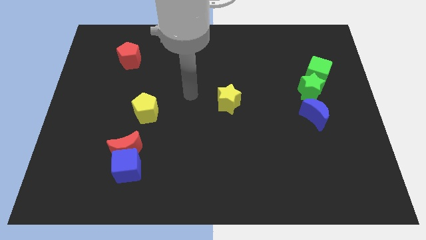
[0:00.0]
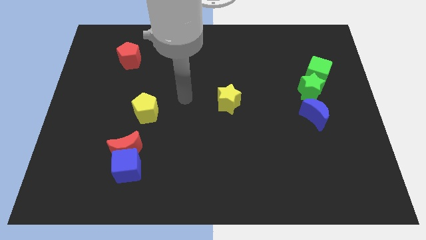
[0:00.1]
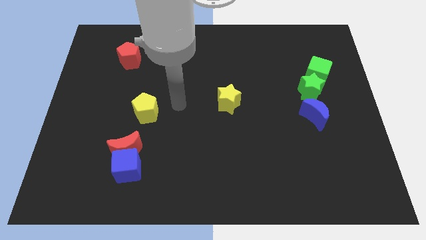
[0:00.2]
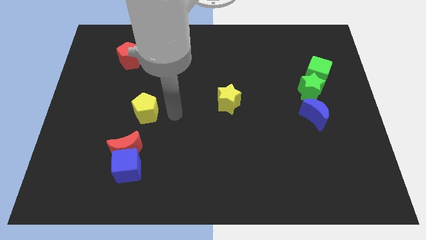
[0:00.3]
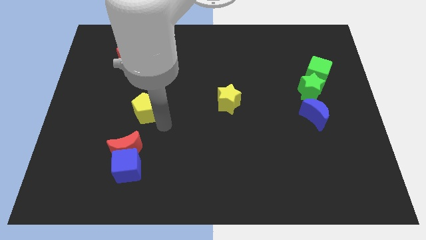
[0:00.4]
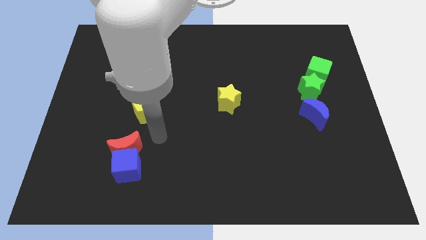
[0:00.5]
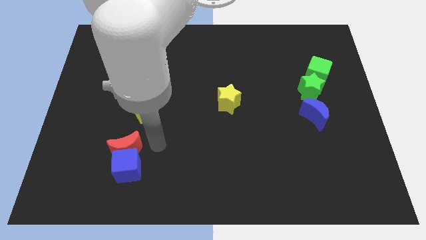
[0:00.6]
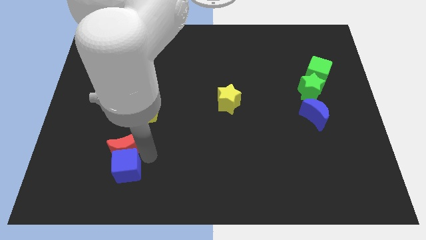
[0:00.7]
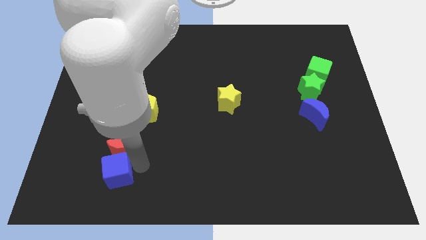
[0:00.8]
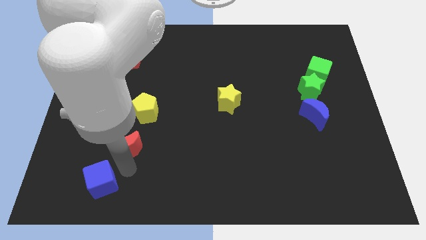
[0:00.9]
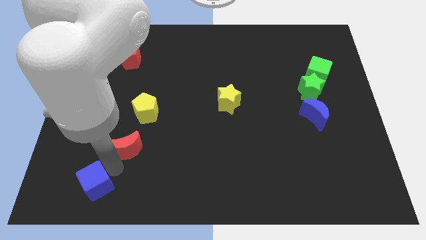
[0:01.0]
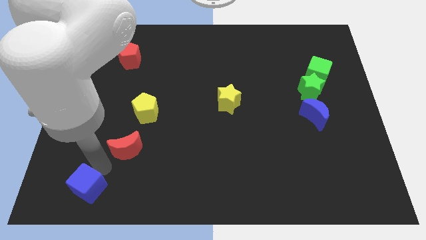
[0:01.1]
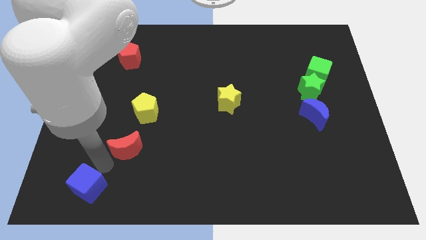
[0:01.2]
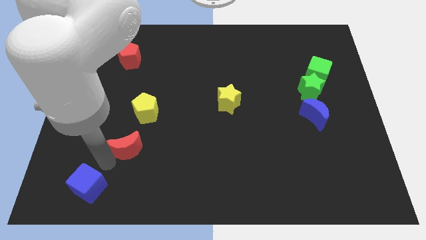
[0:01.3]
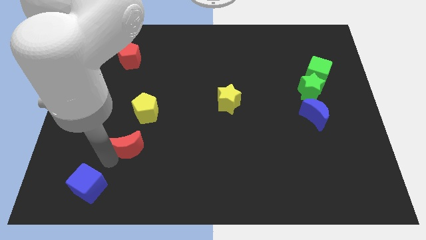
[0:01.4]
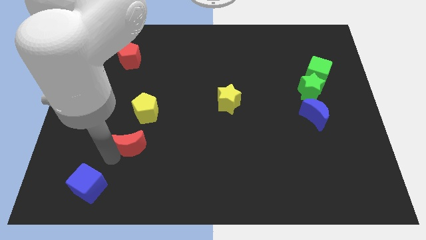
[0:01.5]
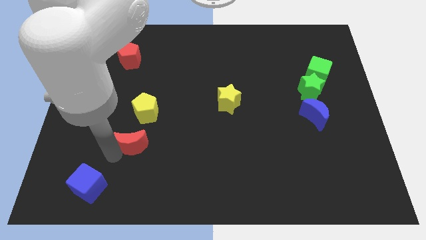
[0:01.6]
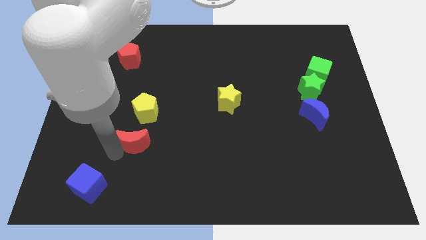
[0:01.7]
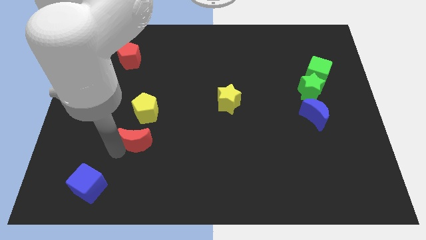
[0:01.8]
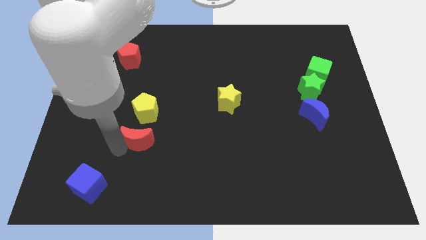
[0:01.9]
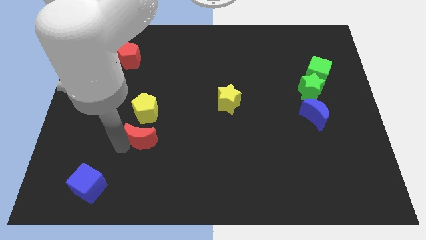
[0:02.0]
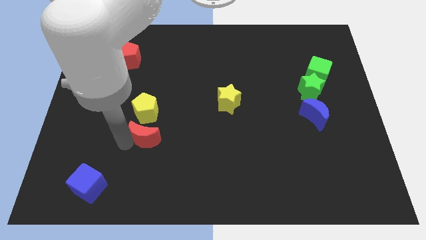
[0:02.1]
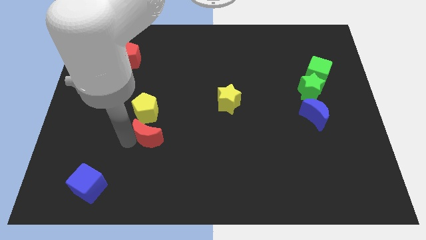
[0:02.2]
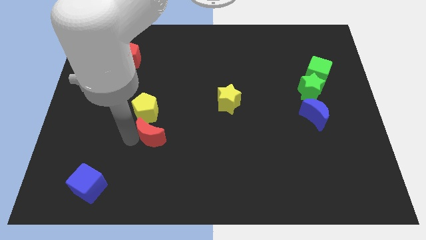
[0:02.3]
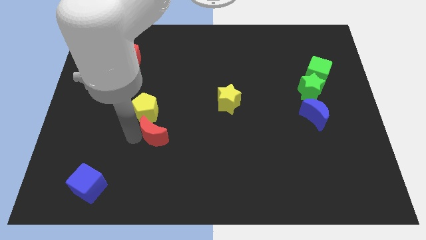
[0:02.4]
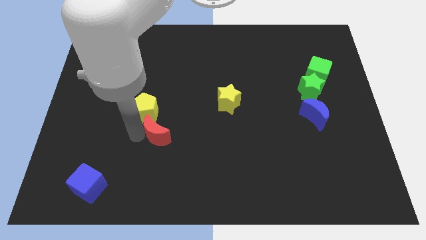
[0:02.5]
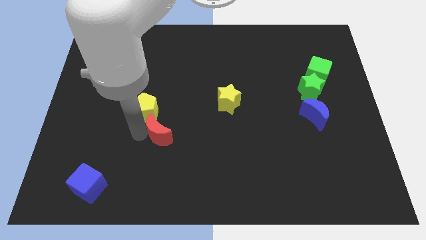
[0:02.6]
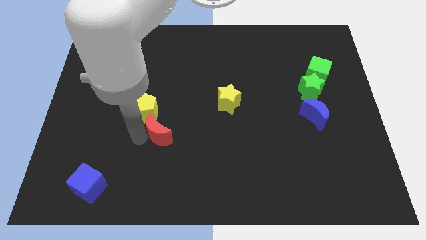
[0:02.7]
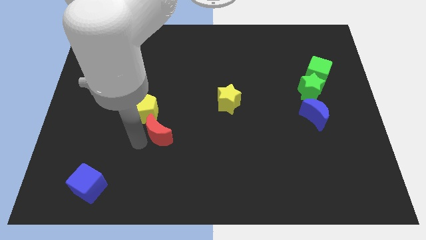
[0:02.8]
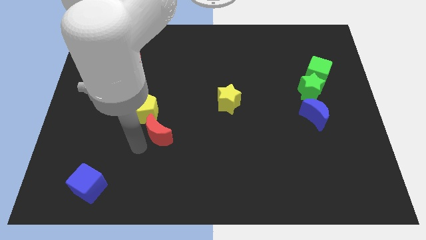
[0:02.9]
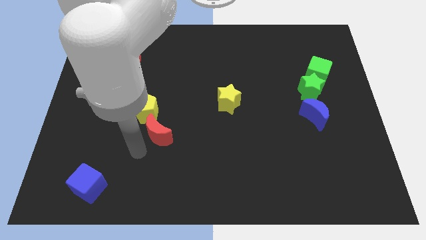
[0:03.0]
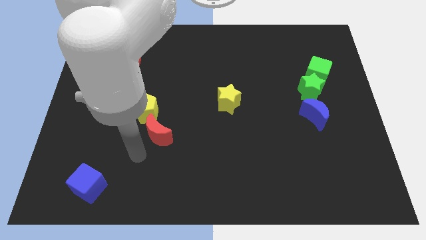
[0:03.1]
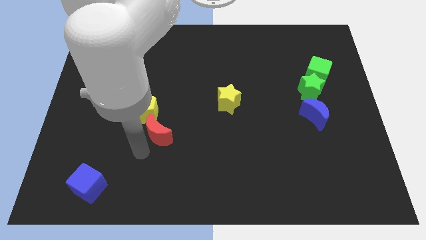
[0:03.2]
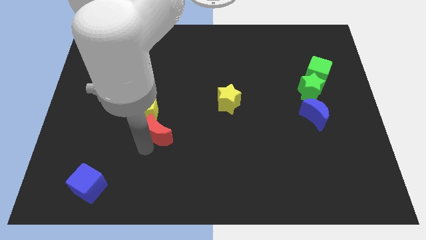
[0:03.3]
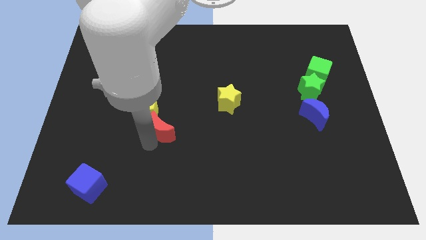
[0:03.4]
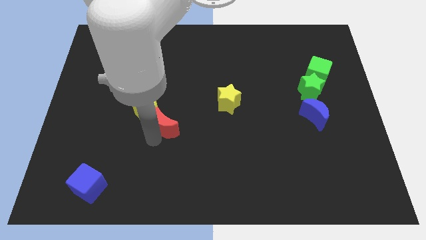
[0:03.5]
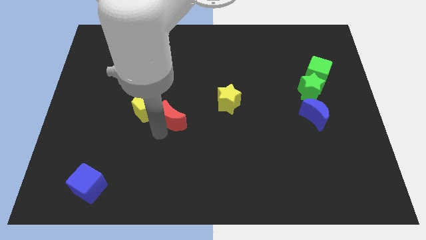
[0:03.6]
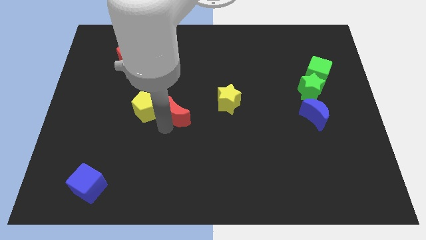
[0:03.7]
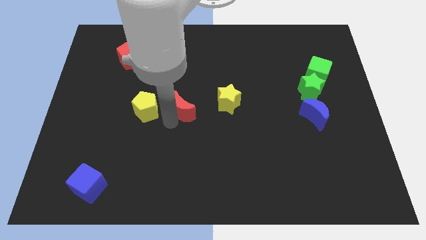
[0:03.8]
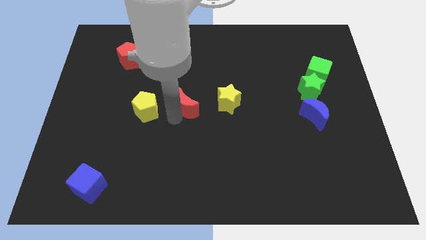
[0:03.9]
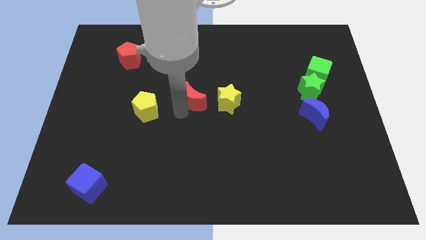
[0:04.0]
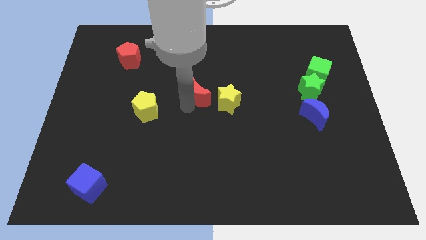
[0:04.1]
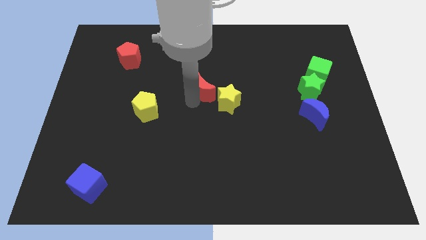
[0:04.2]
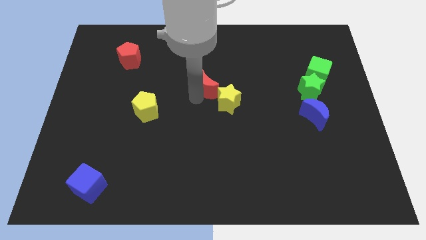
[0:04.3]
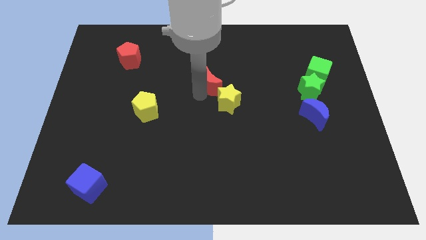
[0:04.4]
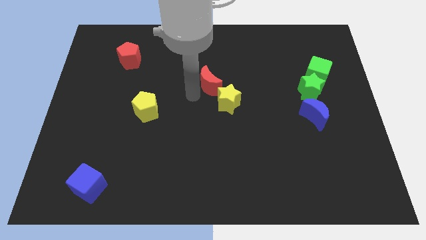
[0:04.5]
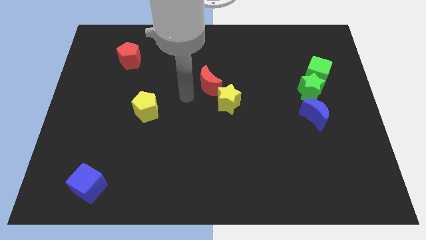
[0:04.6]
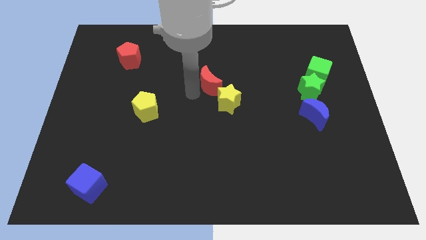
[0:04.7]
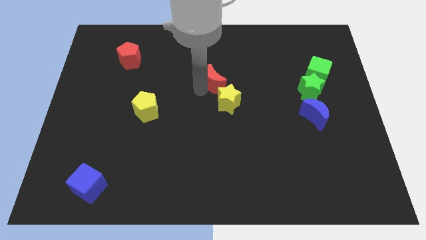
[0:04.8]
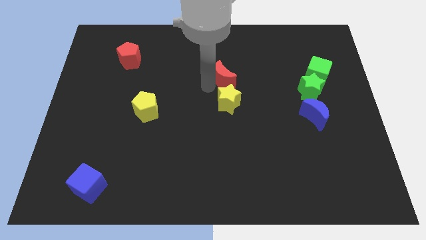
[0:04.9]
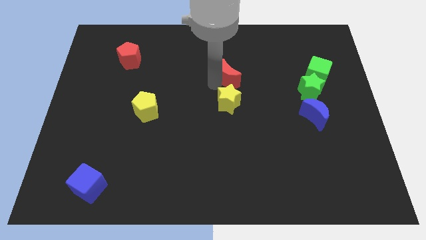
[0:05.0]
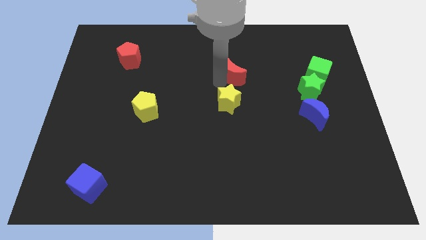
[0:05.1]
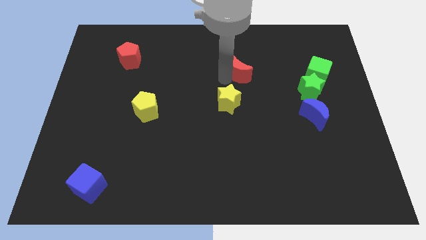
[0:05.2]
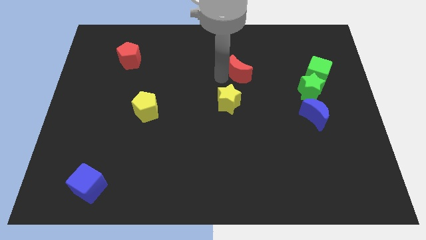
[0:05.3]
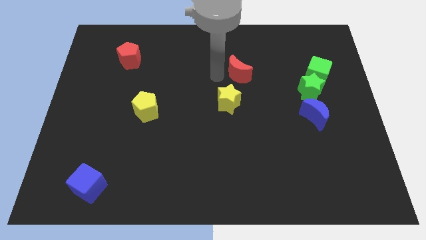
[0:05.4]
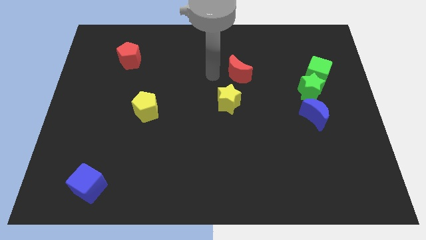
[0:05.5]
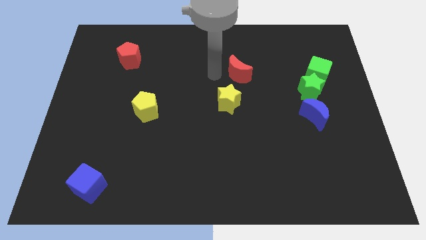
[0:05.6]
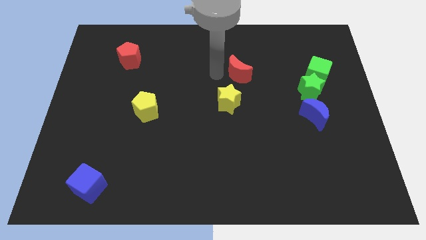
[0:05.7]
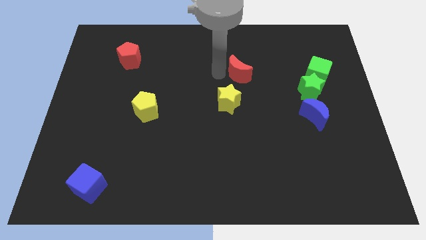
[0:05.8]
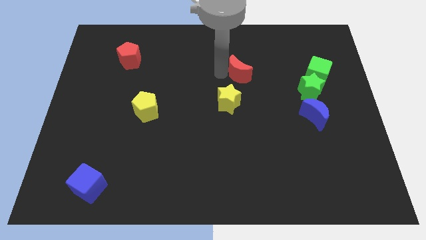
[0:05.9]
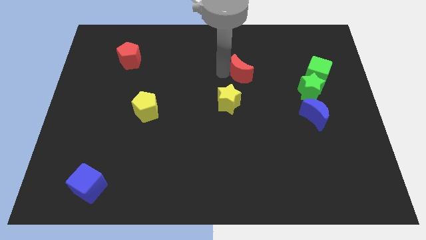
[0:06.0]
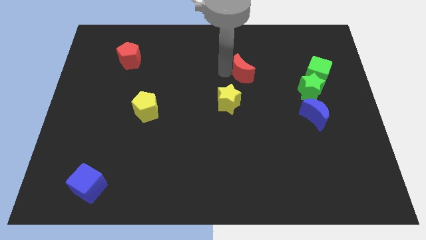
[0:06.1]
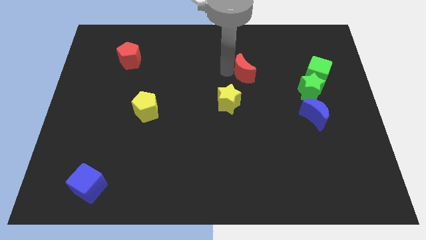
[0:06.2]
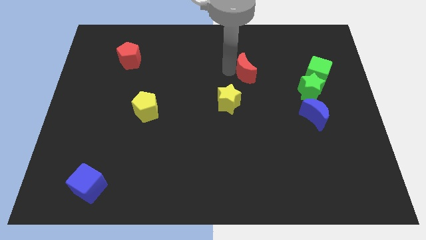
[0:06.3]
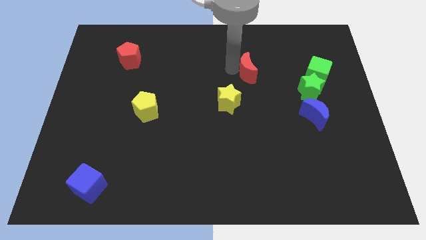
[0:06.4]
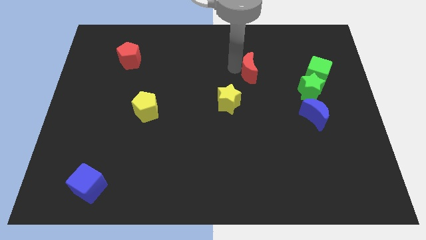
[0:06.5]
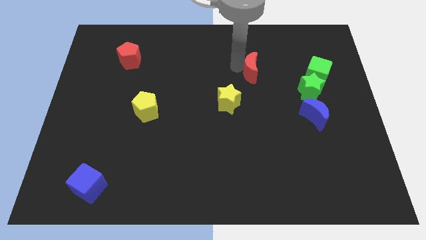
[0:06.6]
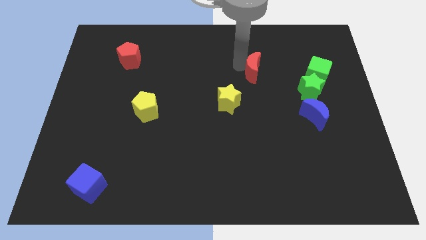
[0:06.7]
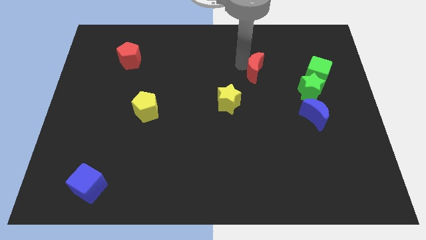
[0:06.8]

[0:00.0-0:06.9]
slide the red moon just left of the green cube

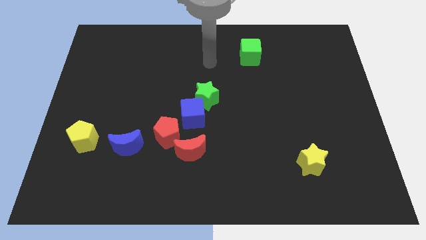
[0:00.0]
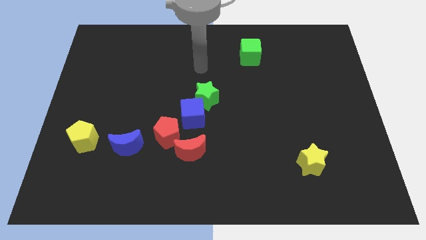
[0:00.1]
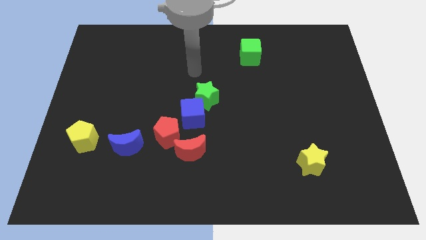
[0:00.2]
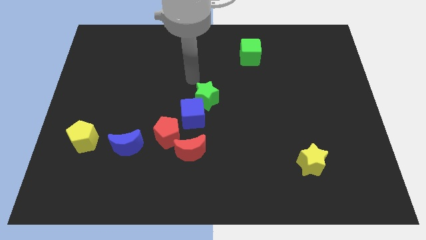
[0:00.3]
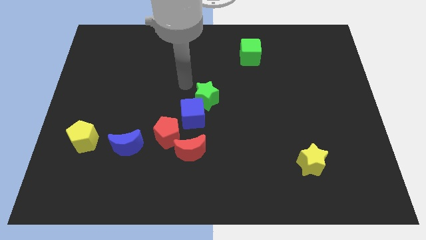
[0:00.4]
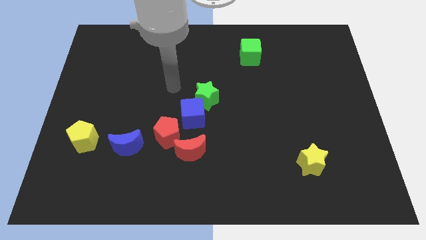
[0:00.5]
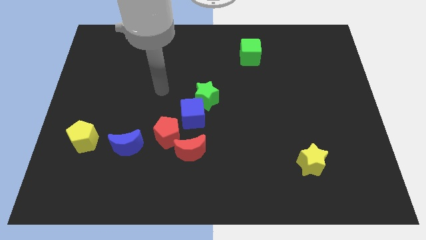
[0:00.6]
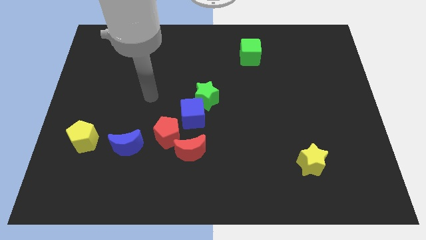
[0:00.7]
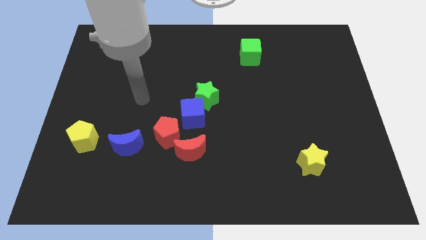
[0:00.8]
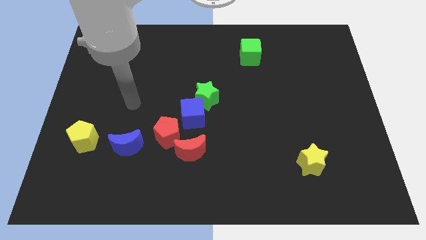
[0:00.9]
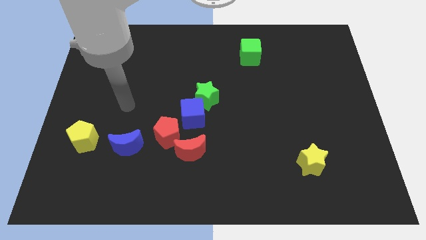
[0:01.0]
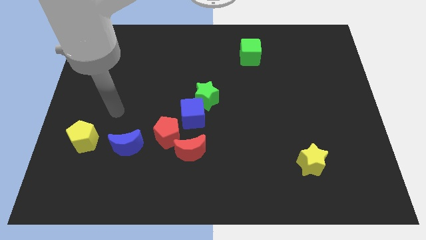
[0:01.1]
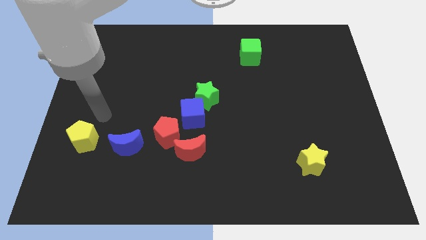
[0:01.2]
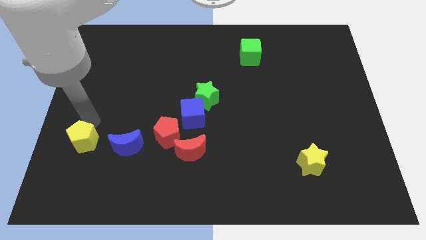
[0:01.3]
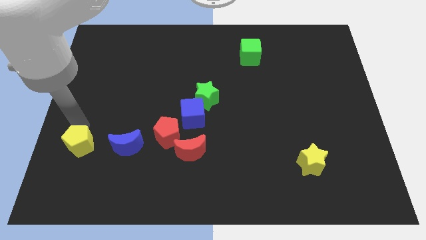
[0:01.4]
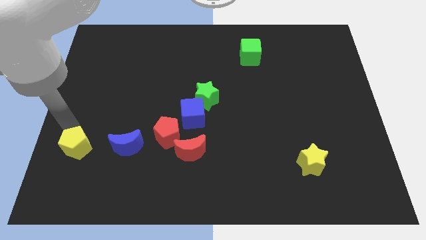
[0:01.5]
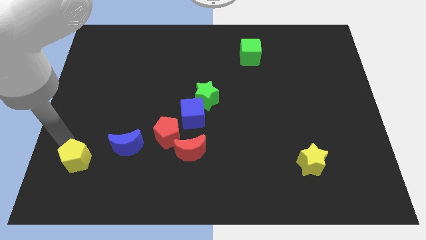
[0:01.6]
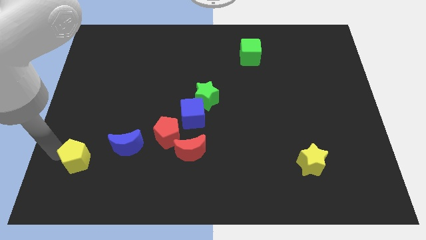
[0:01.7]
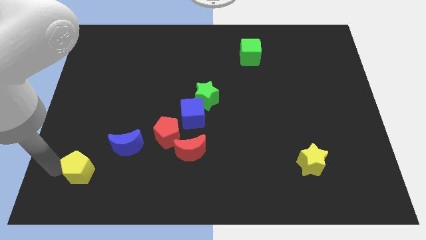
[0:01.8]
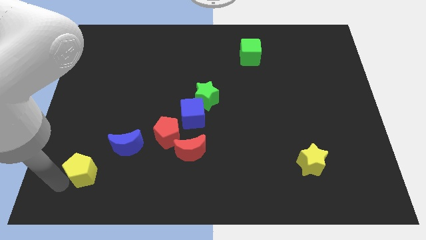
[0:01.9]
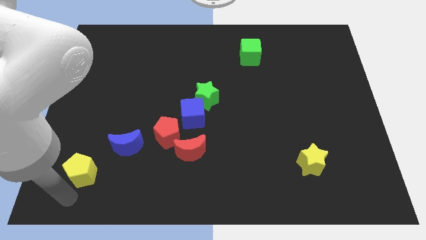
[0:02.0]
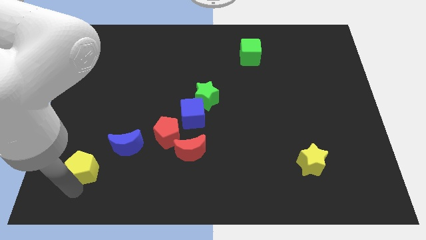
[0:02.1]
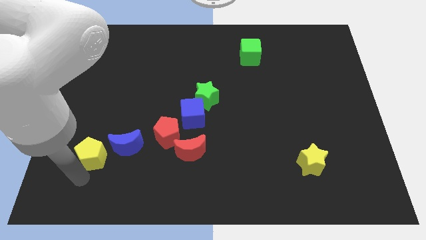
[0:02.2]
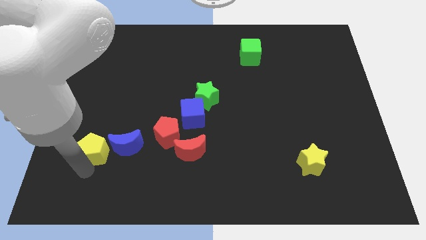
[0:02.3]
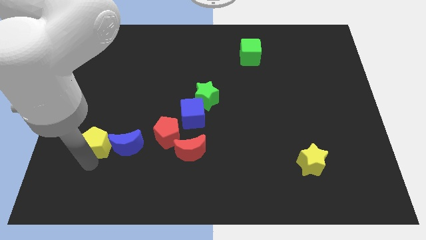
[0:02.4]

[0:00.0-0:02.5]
put the yellow pentagon diagonally up and to the left of the blue moon
